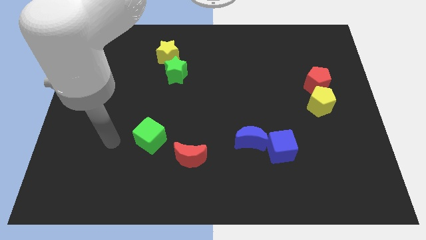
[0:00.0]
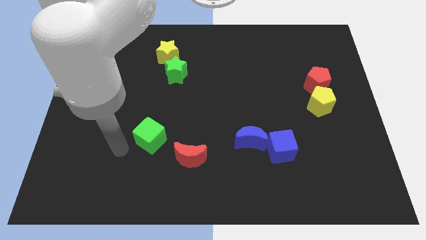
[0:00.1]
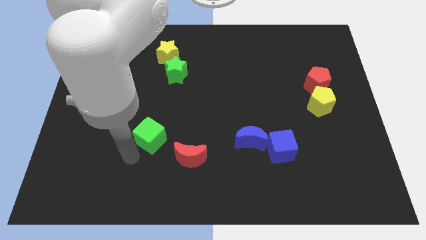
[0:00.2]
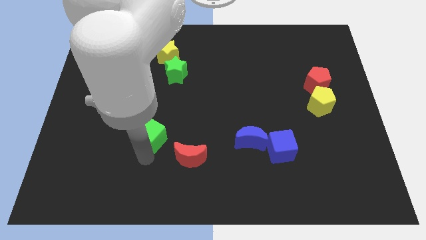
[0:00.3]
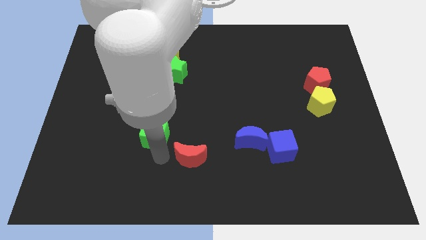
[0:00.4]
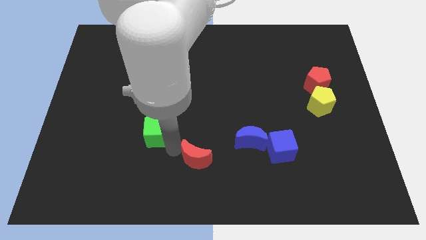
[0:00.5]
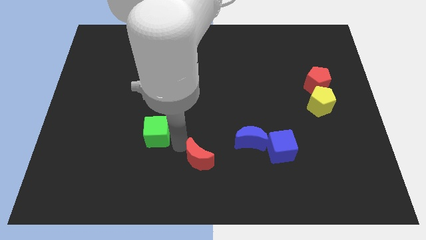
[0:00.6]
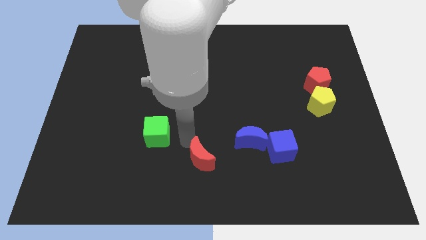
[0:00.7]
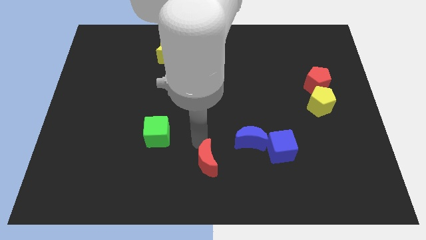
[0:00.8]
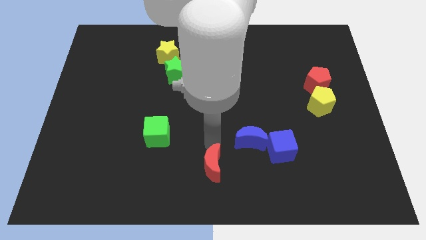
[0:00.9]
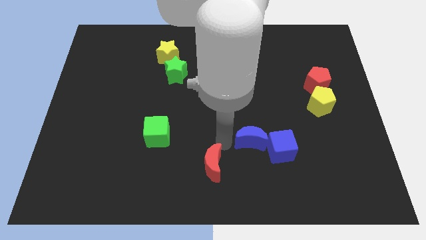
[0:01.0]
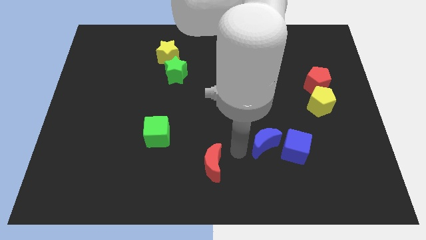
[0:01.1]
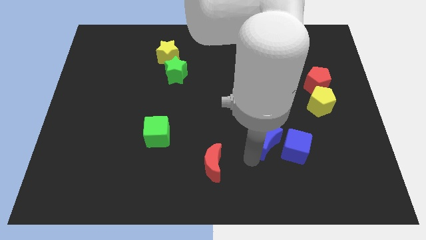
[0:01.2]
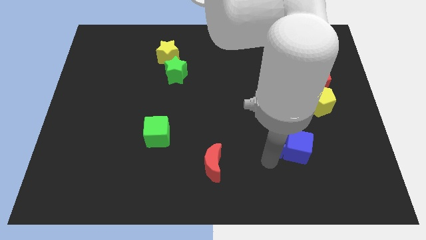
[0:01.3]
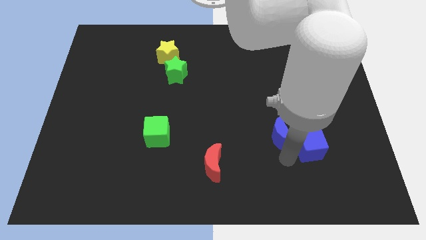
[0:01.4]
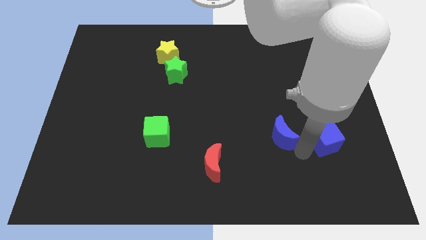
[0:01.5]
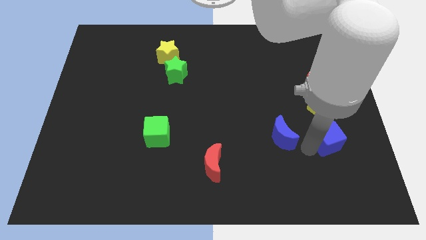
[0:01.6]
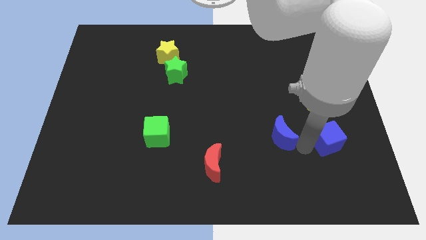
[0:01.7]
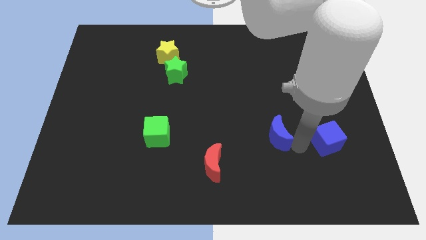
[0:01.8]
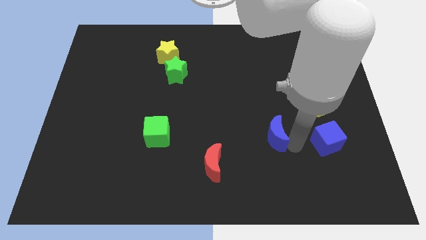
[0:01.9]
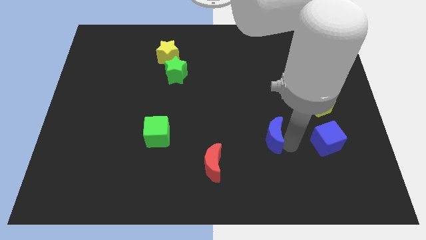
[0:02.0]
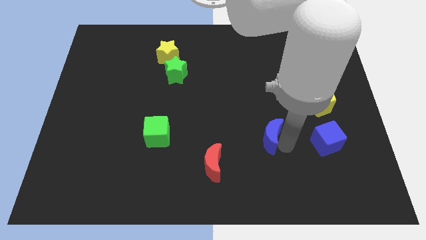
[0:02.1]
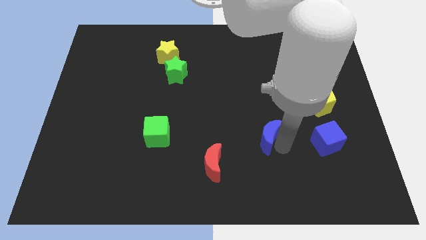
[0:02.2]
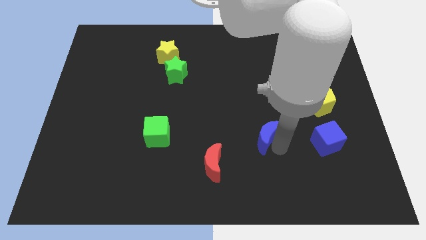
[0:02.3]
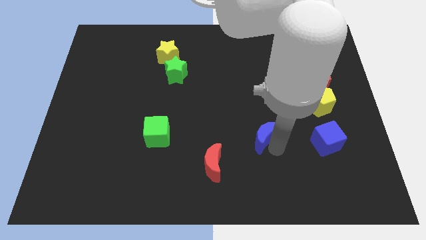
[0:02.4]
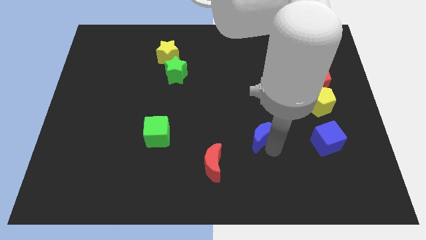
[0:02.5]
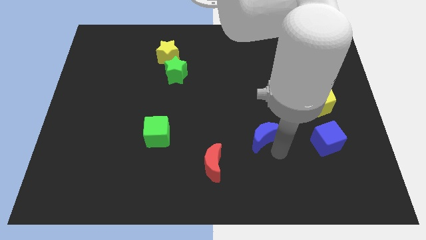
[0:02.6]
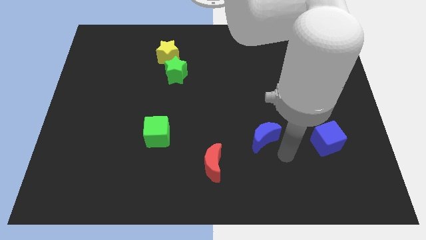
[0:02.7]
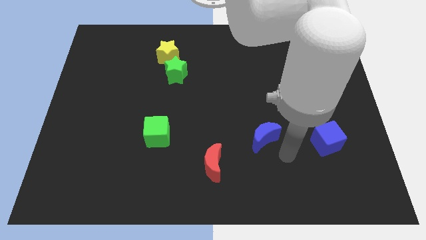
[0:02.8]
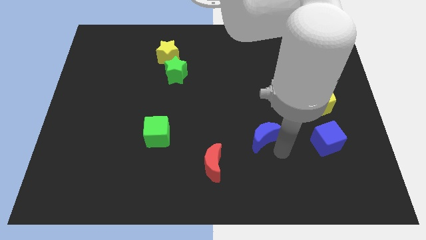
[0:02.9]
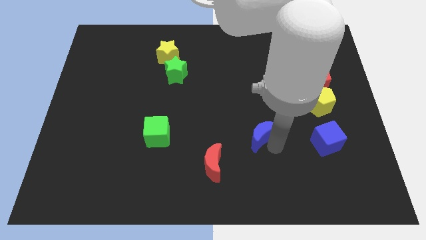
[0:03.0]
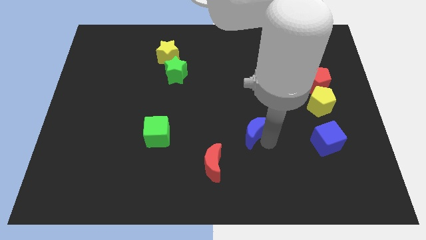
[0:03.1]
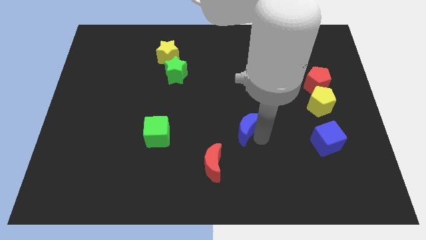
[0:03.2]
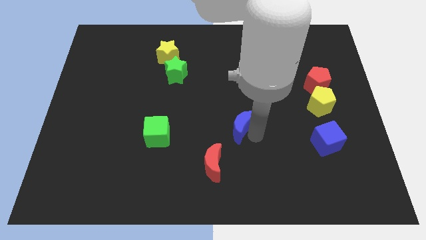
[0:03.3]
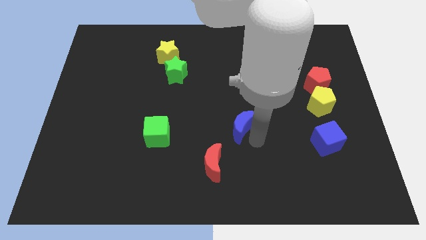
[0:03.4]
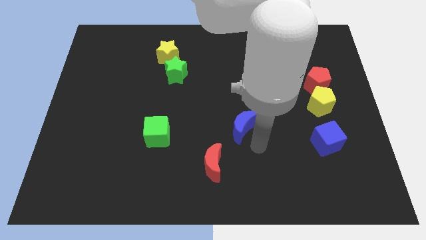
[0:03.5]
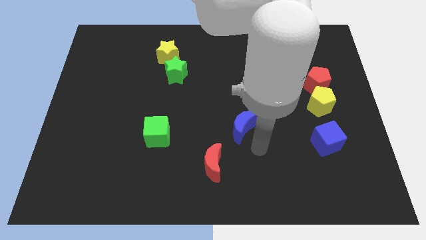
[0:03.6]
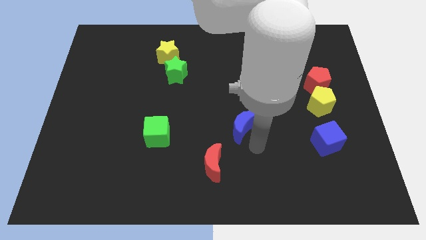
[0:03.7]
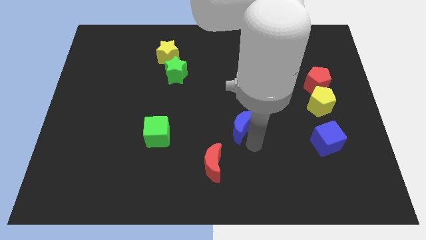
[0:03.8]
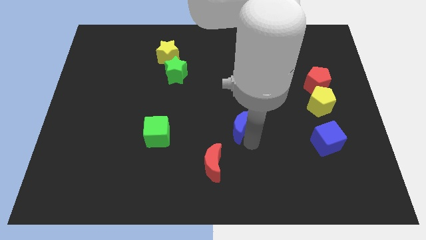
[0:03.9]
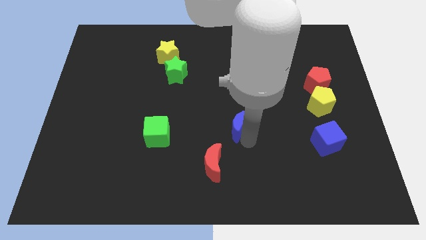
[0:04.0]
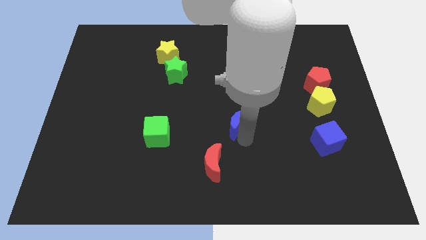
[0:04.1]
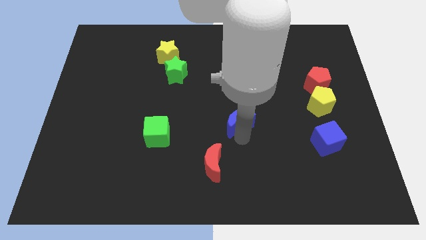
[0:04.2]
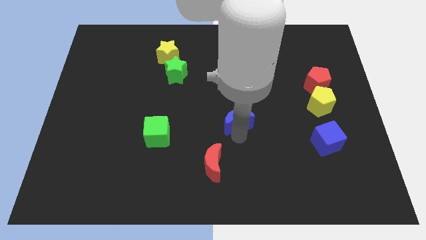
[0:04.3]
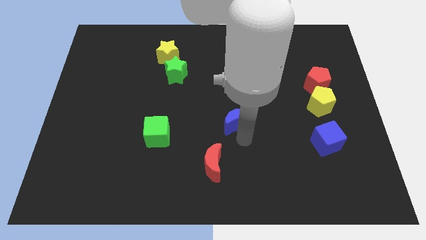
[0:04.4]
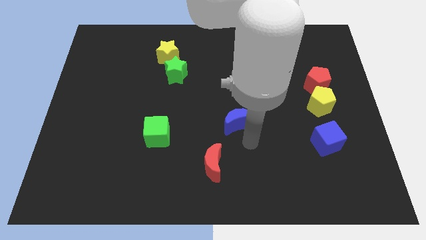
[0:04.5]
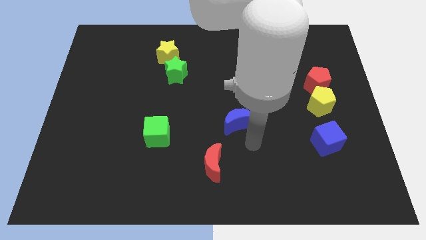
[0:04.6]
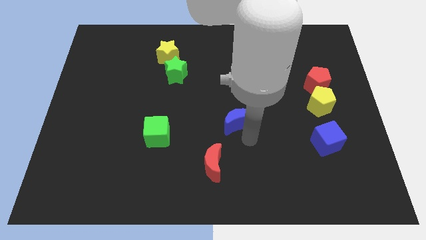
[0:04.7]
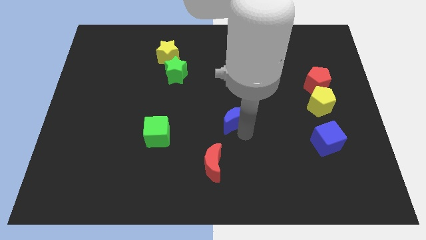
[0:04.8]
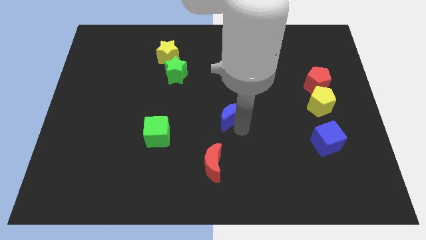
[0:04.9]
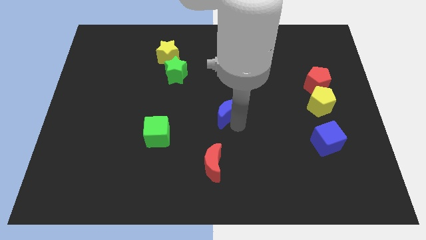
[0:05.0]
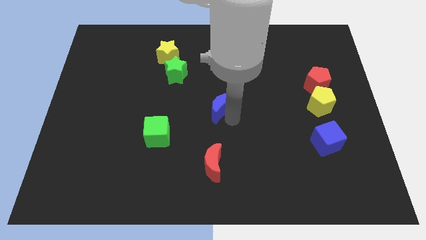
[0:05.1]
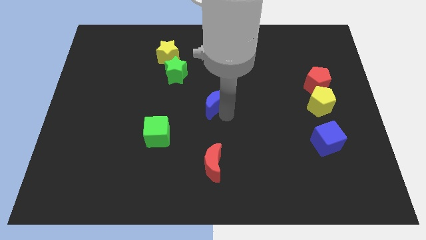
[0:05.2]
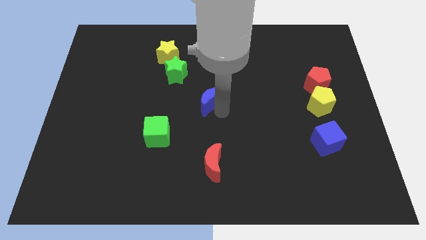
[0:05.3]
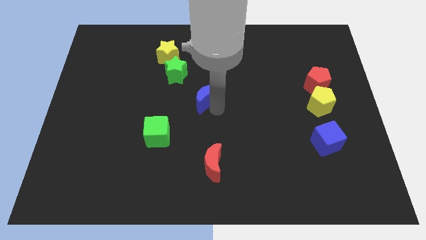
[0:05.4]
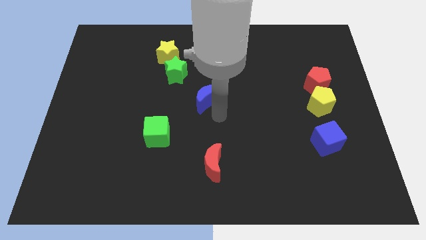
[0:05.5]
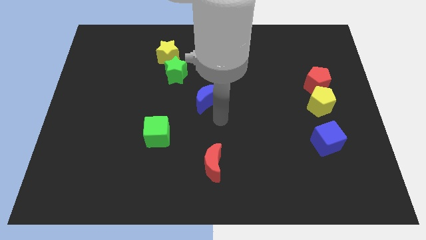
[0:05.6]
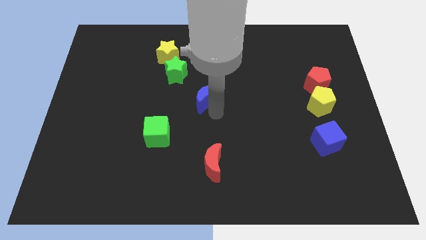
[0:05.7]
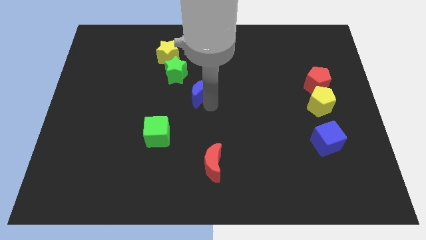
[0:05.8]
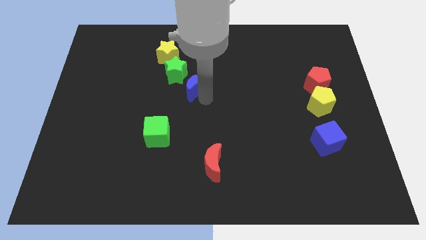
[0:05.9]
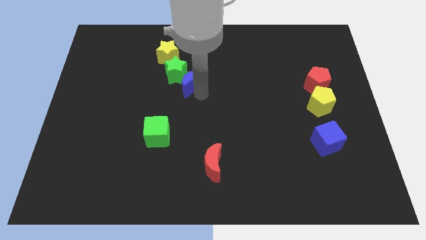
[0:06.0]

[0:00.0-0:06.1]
put the blue moon to the bottom right of the yellow star

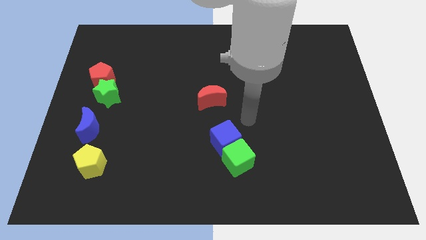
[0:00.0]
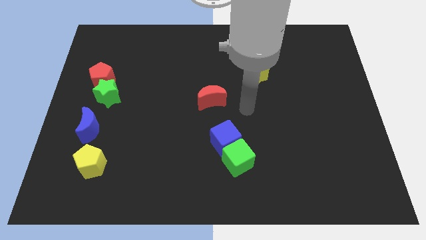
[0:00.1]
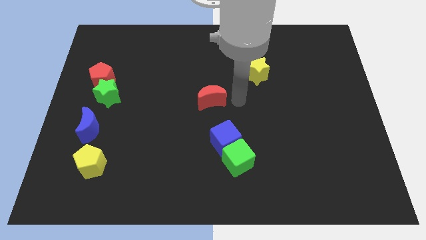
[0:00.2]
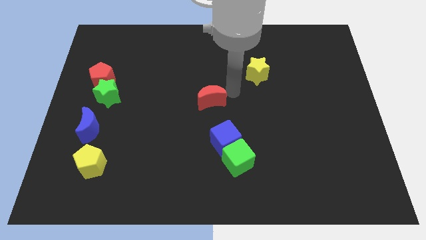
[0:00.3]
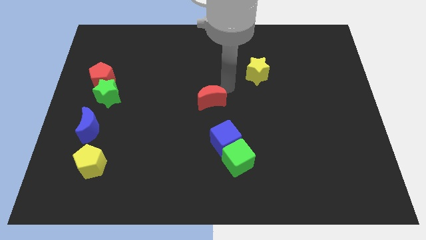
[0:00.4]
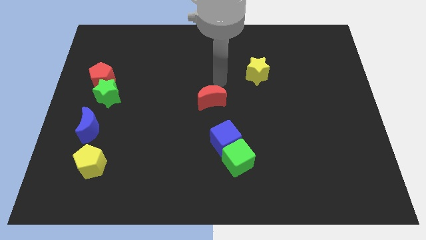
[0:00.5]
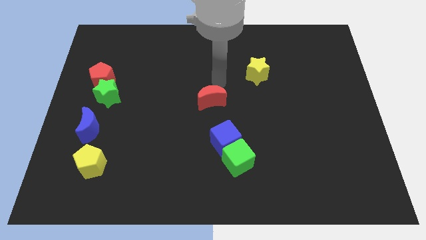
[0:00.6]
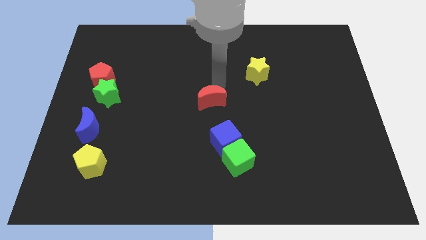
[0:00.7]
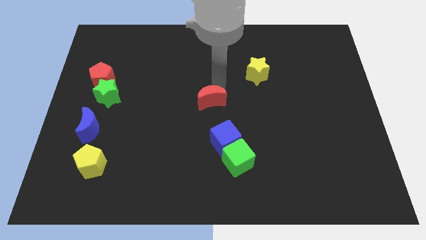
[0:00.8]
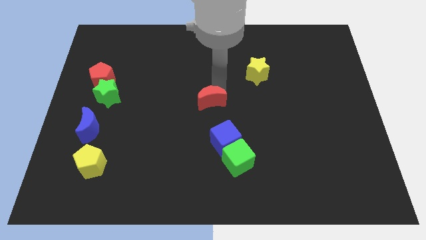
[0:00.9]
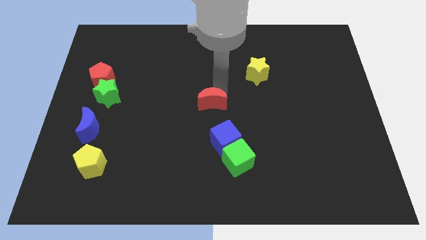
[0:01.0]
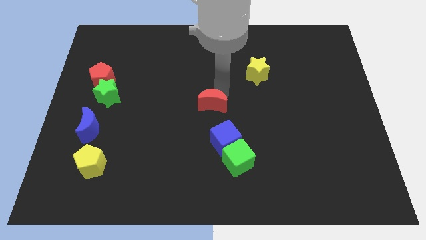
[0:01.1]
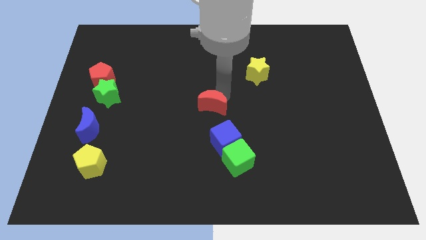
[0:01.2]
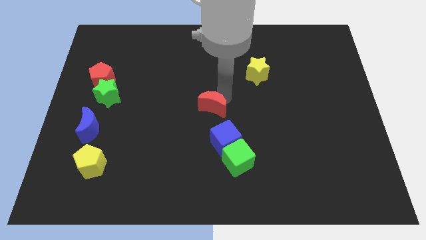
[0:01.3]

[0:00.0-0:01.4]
push the red moon diagonally up and to the left of the blue cube

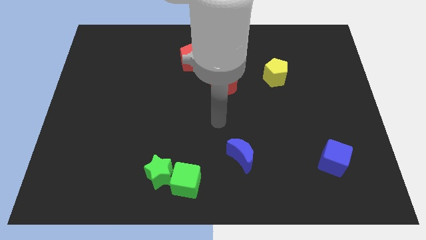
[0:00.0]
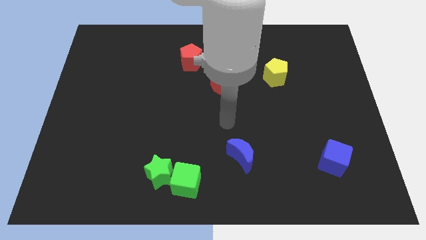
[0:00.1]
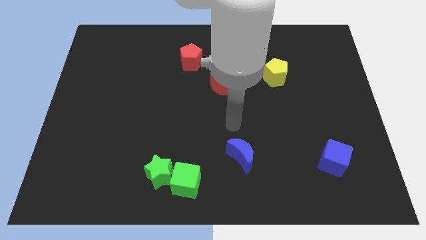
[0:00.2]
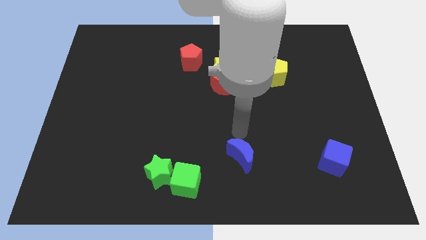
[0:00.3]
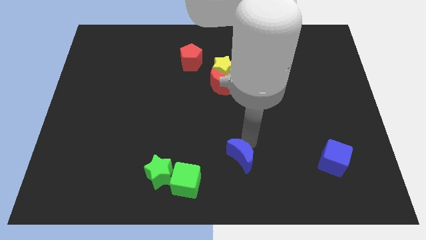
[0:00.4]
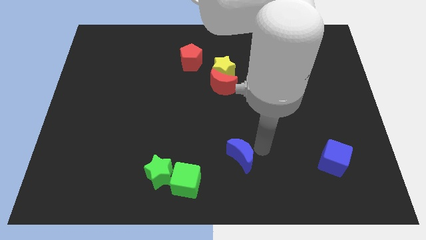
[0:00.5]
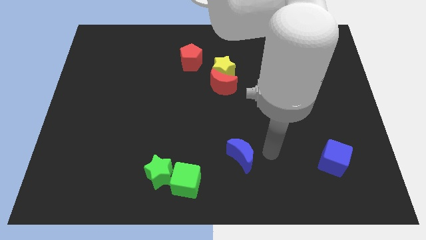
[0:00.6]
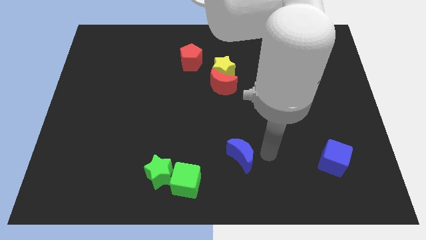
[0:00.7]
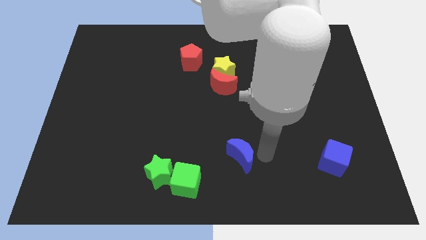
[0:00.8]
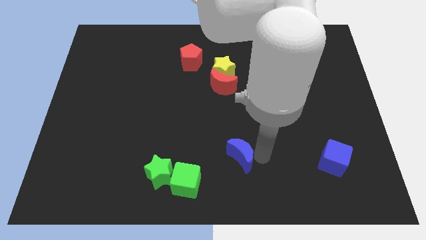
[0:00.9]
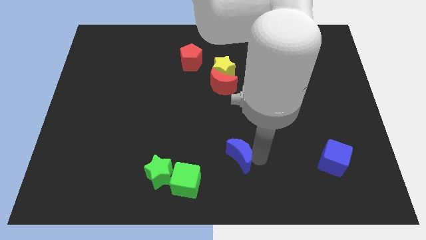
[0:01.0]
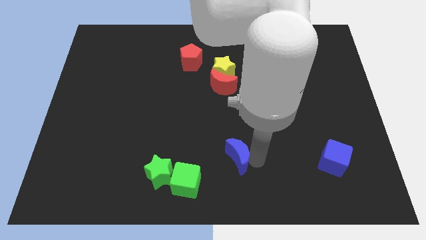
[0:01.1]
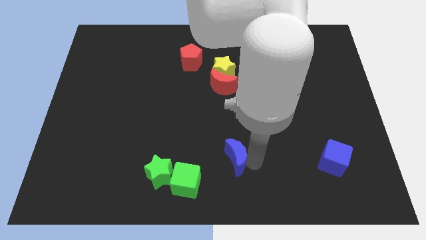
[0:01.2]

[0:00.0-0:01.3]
put the blue moon to the top right of the green cube
